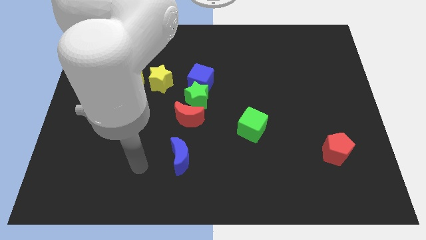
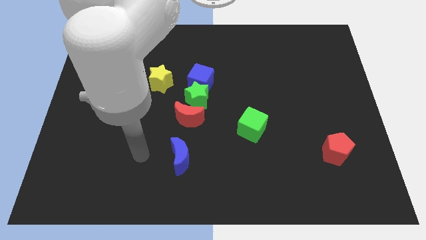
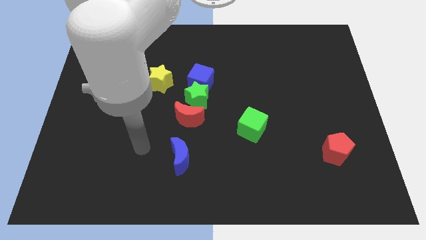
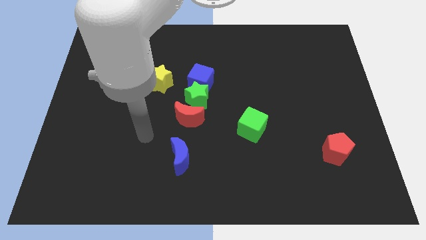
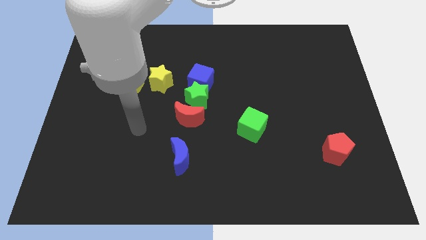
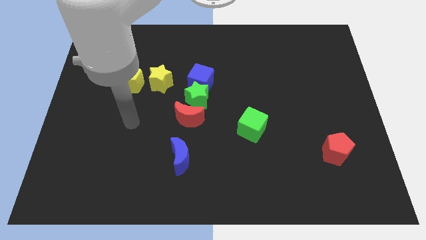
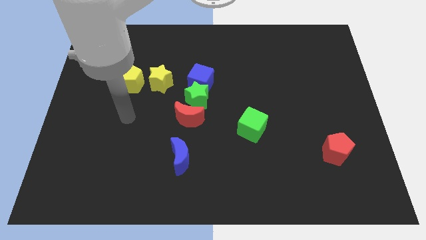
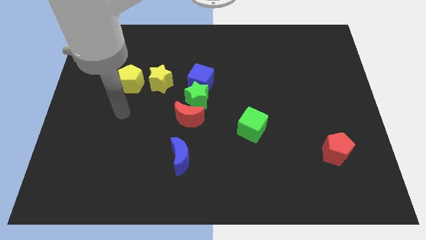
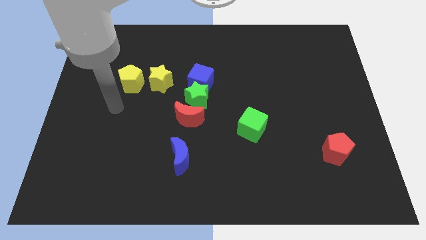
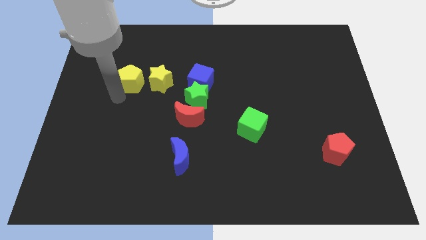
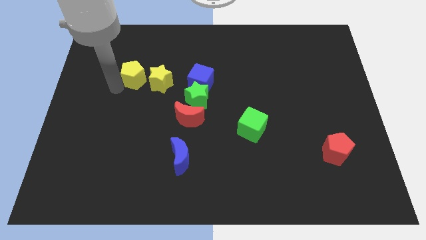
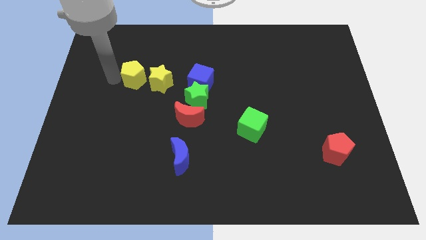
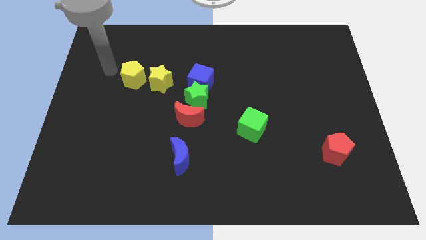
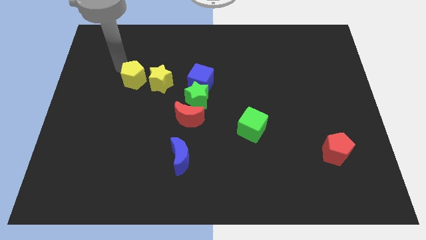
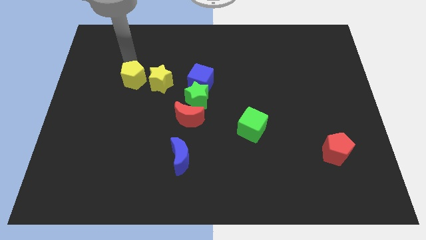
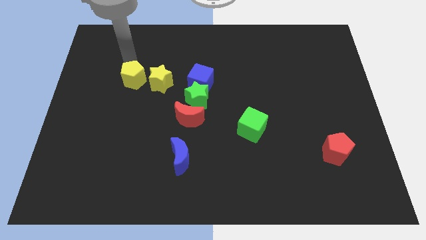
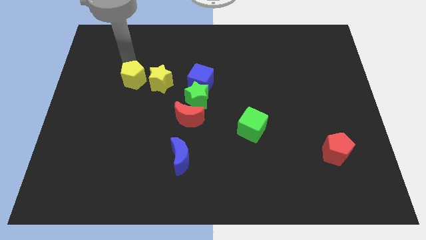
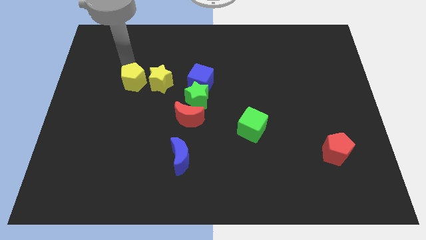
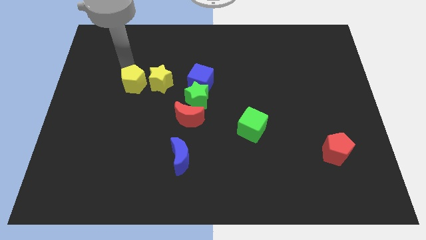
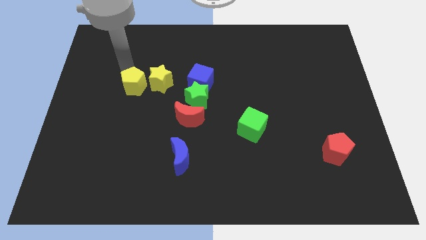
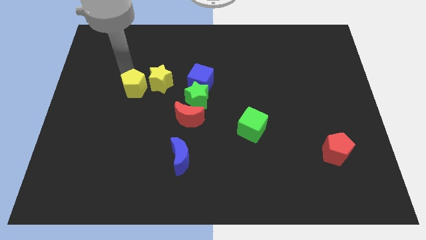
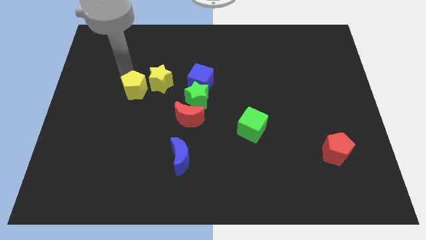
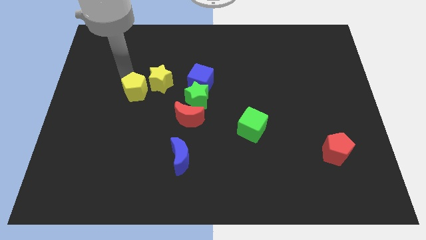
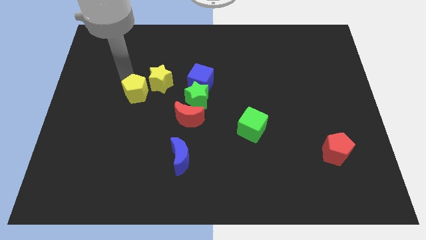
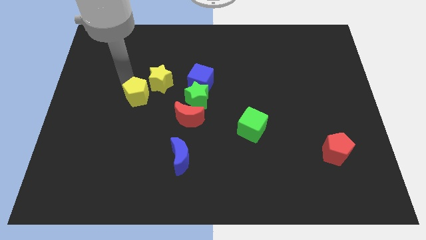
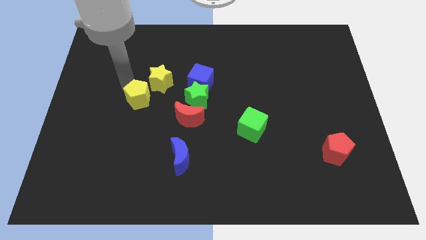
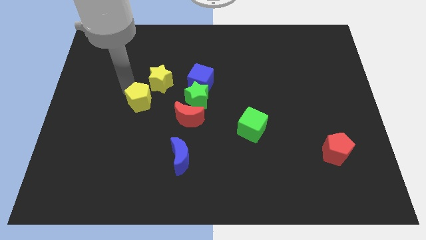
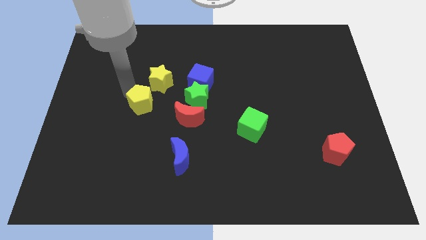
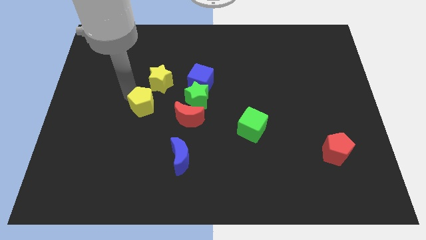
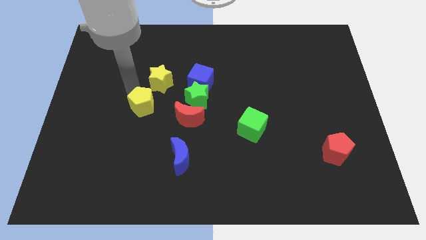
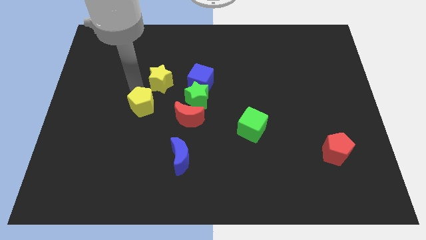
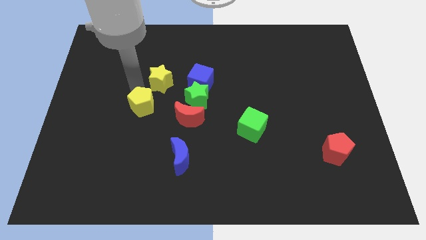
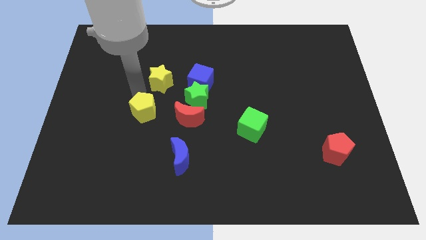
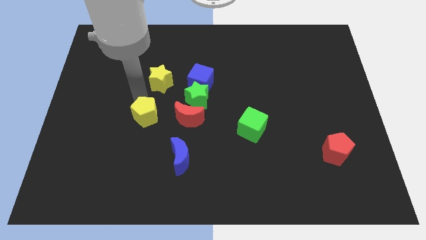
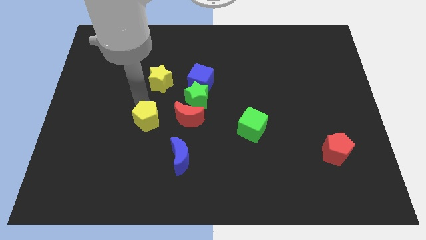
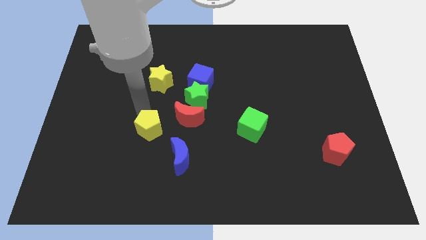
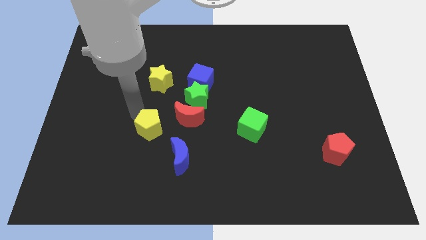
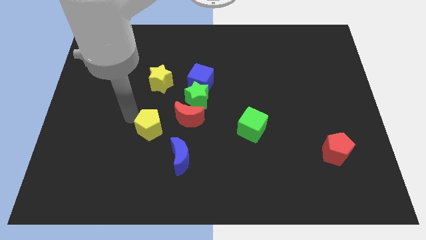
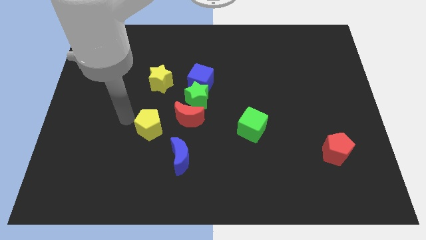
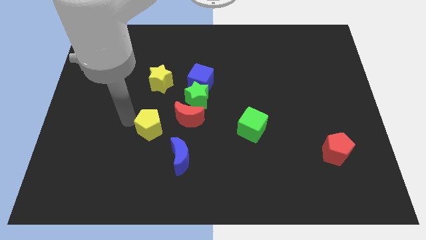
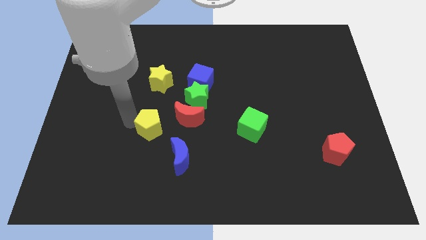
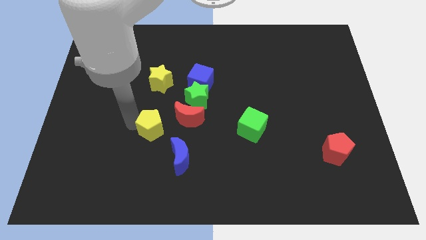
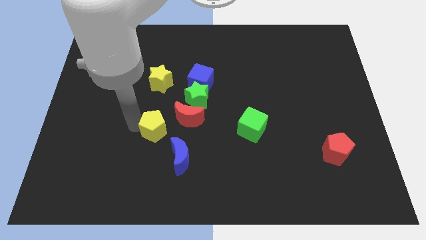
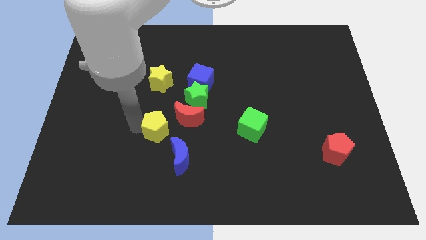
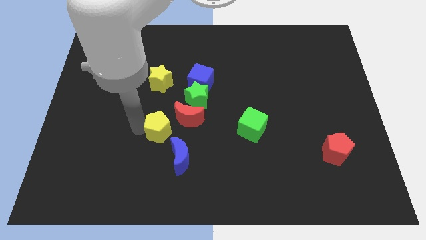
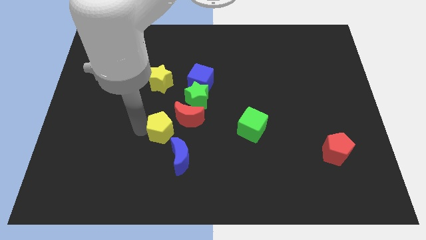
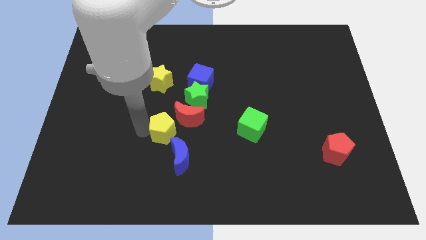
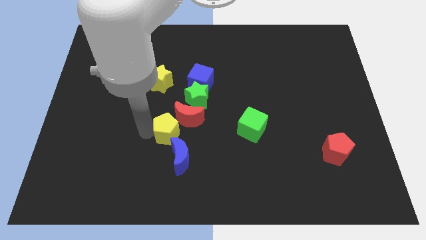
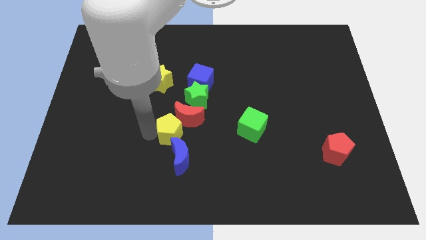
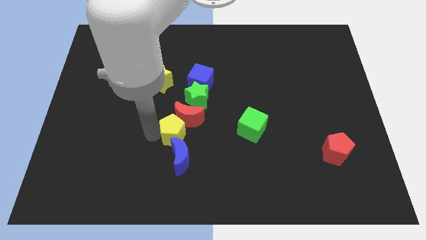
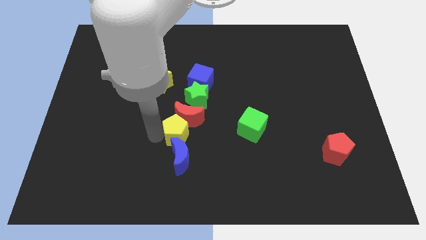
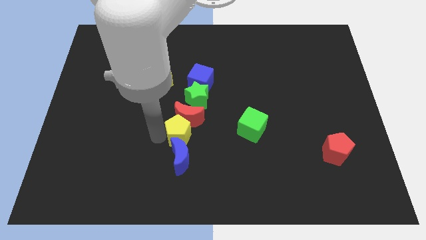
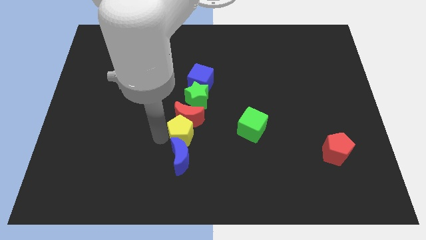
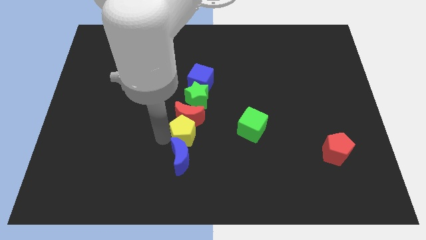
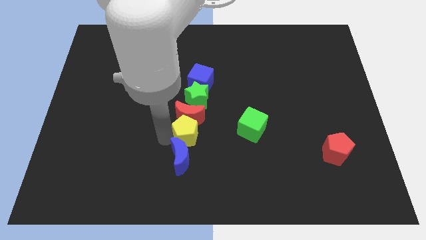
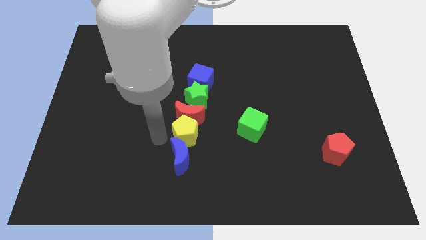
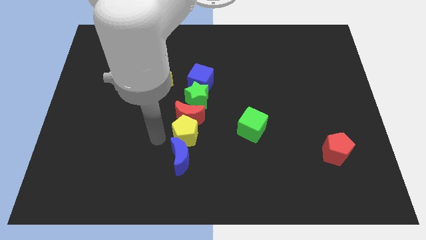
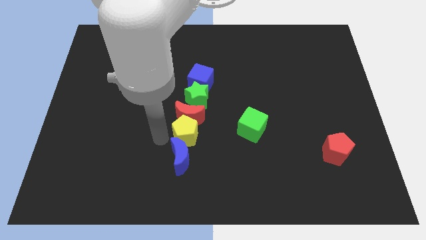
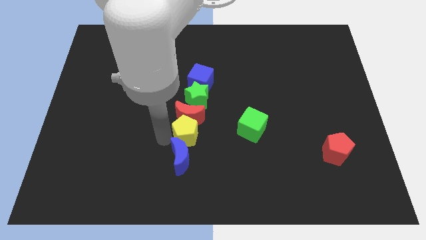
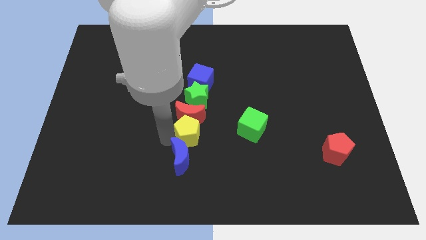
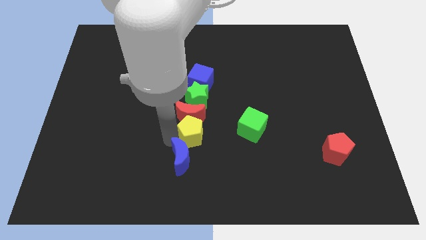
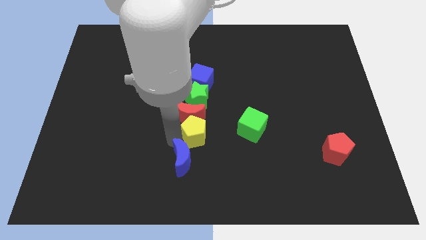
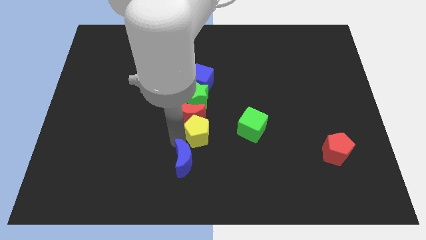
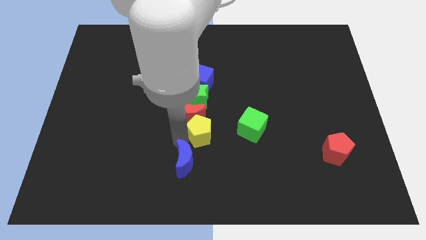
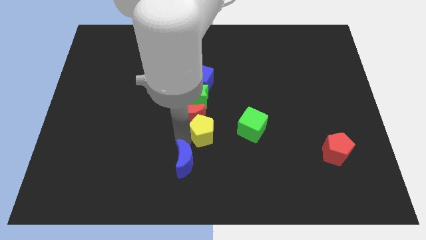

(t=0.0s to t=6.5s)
move the yellow pentagon right of the red moon
